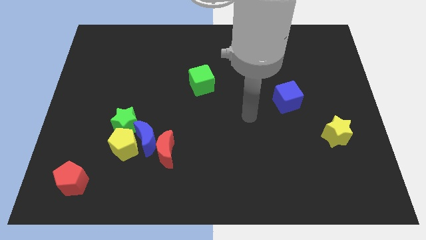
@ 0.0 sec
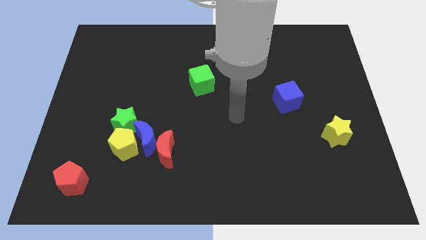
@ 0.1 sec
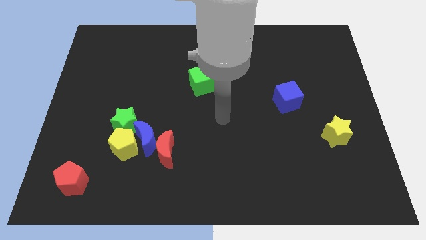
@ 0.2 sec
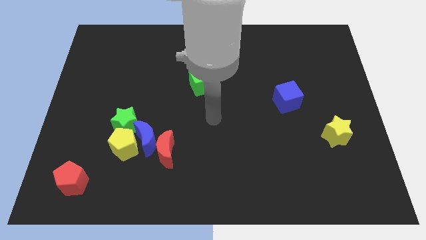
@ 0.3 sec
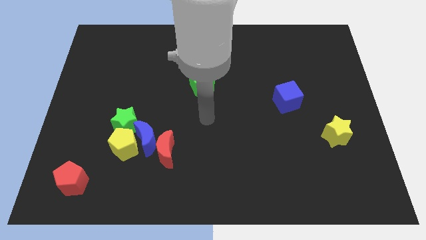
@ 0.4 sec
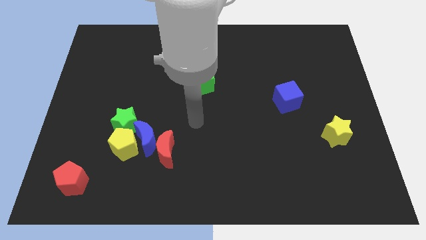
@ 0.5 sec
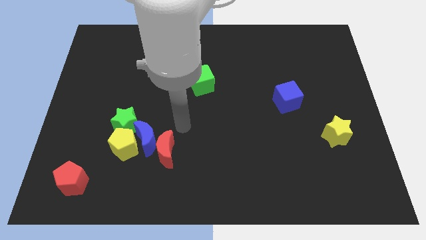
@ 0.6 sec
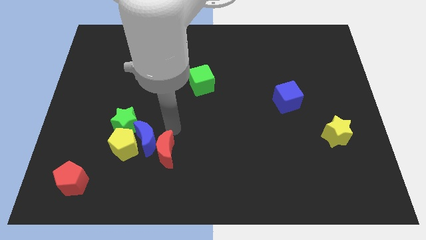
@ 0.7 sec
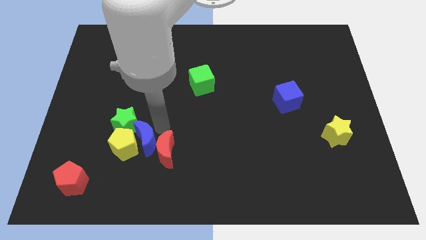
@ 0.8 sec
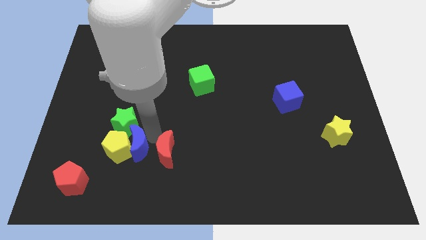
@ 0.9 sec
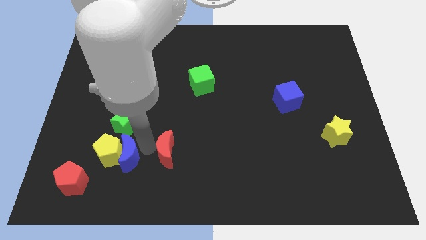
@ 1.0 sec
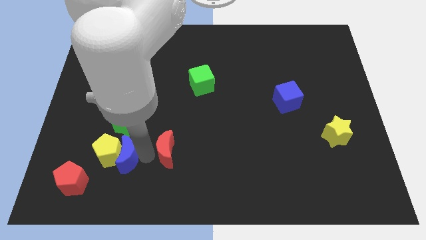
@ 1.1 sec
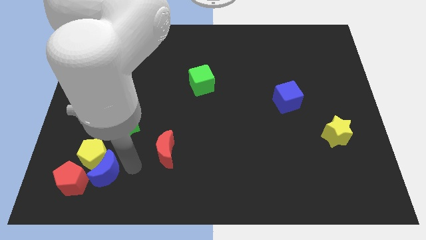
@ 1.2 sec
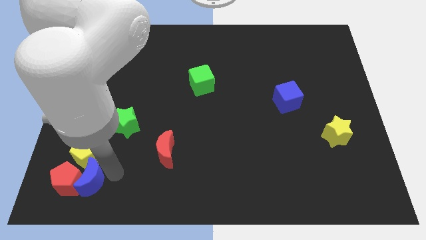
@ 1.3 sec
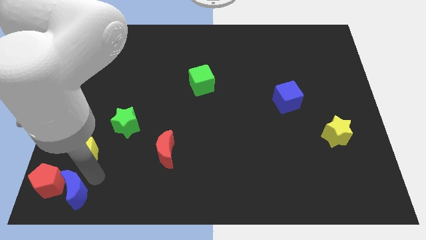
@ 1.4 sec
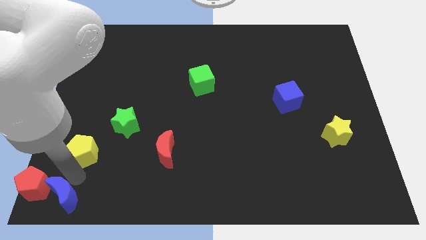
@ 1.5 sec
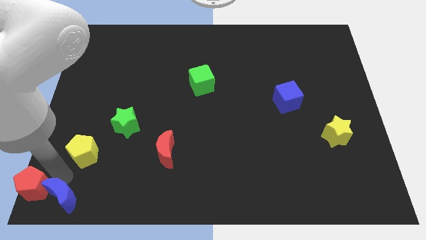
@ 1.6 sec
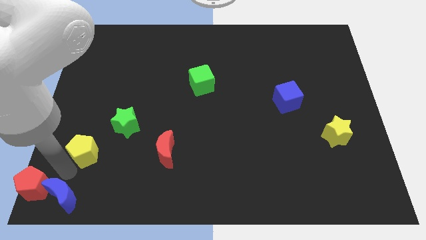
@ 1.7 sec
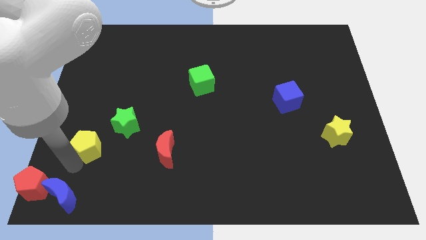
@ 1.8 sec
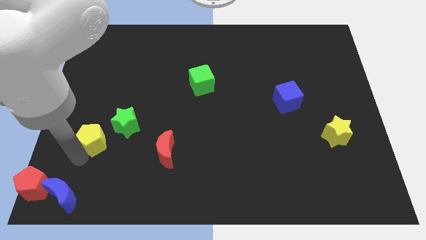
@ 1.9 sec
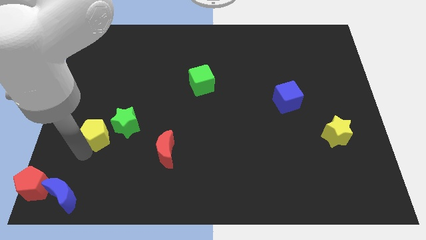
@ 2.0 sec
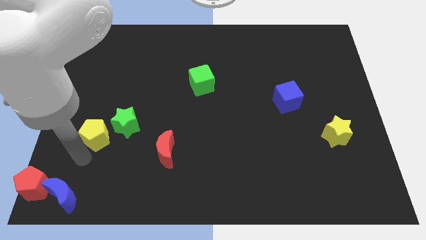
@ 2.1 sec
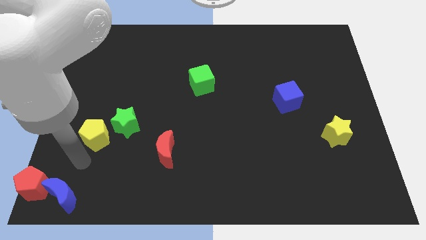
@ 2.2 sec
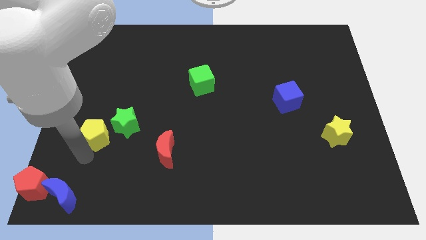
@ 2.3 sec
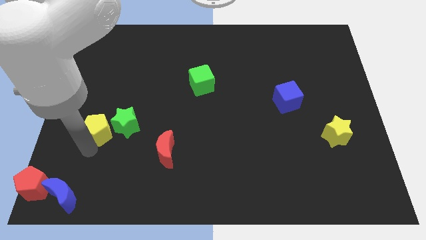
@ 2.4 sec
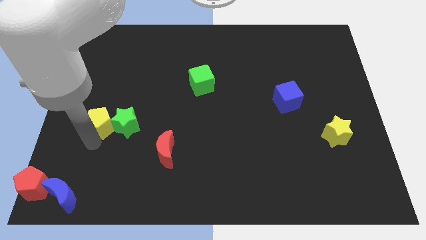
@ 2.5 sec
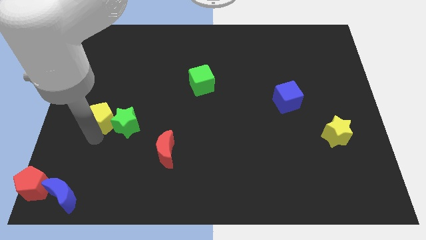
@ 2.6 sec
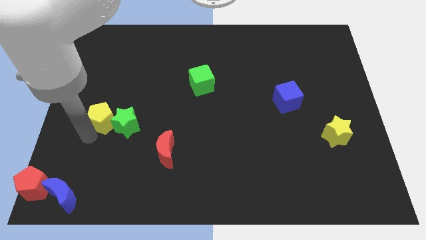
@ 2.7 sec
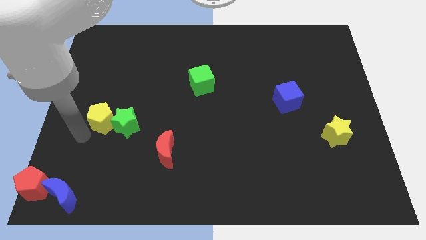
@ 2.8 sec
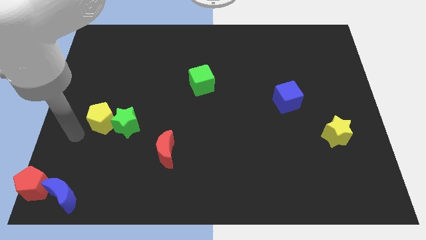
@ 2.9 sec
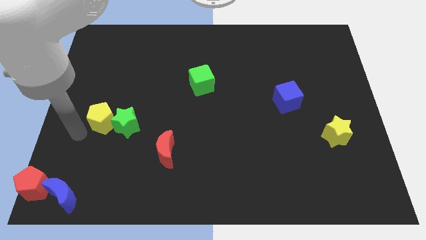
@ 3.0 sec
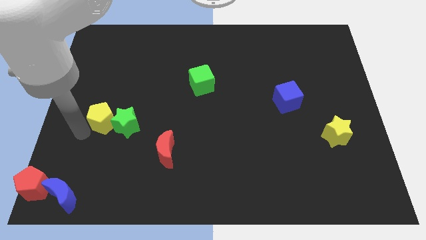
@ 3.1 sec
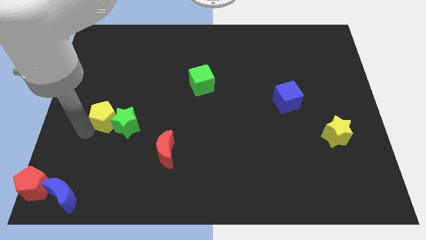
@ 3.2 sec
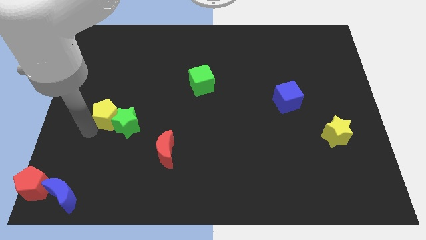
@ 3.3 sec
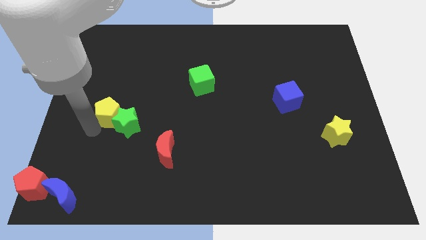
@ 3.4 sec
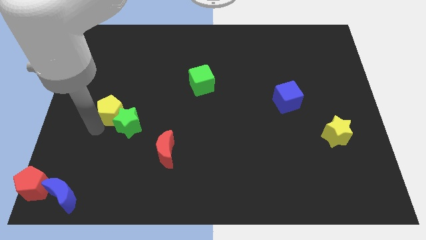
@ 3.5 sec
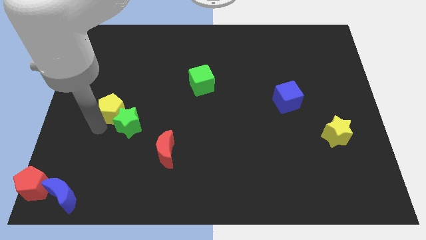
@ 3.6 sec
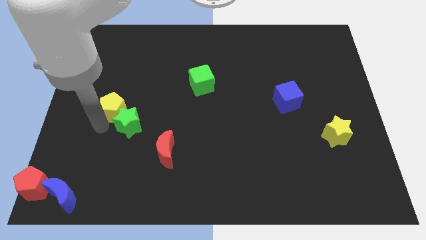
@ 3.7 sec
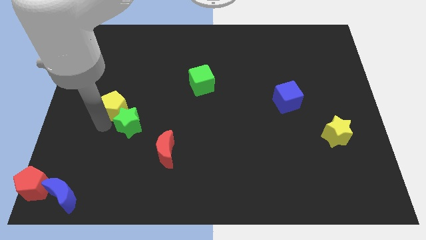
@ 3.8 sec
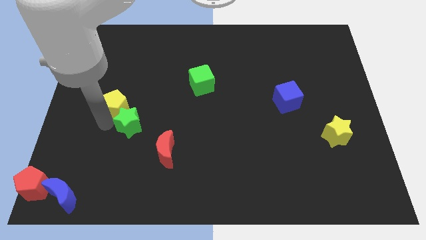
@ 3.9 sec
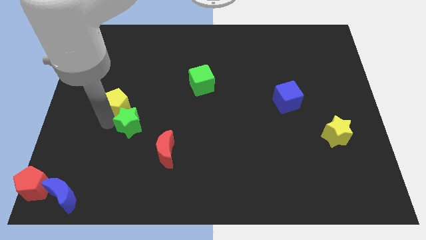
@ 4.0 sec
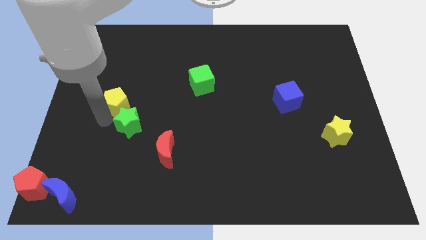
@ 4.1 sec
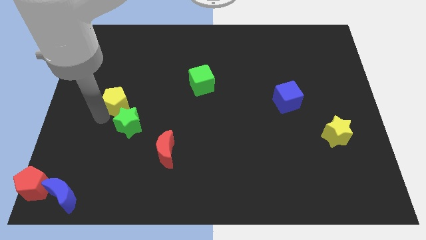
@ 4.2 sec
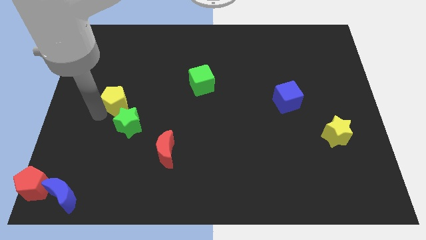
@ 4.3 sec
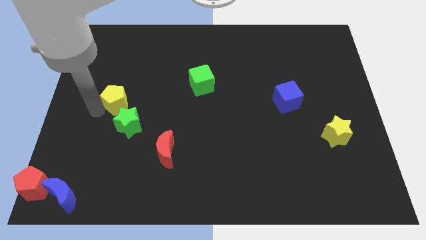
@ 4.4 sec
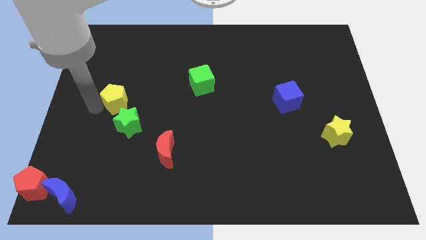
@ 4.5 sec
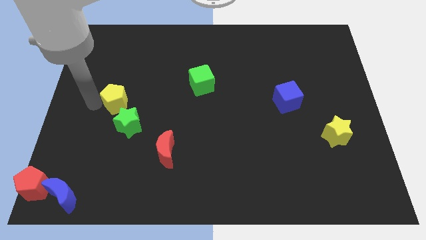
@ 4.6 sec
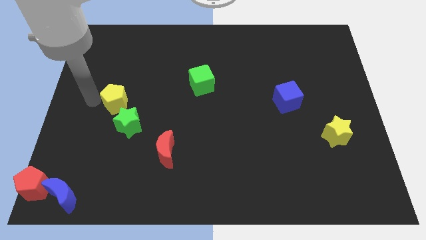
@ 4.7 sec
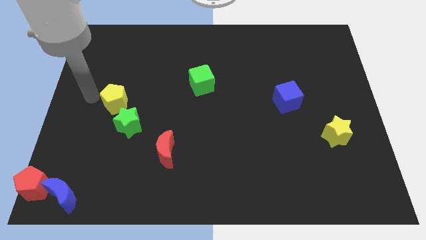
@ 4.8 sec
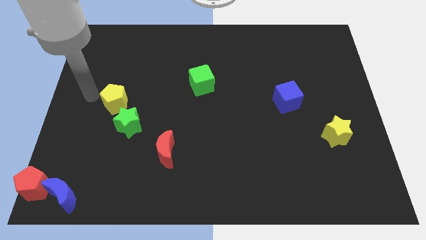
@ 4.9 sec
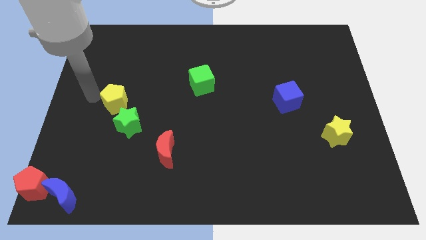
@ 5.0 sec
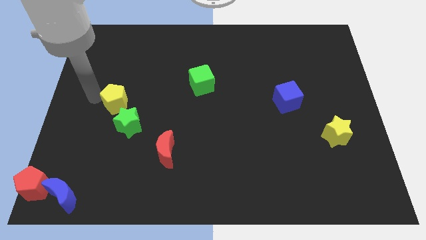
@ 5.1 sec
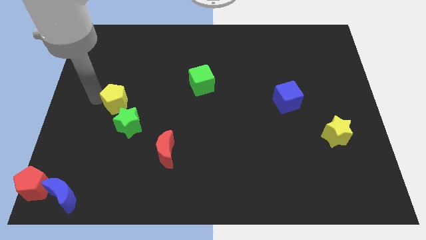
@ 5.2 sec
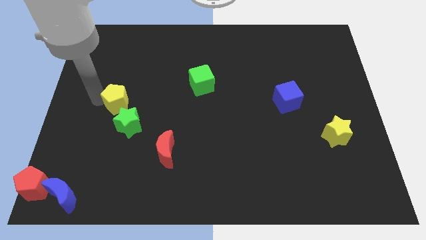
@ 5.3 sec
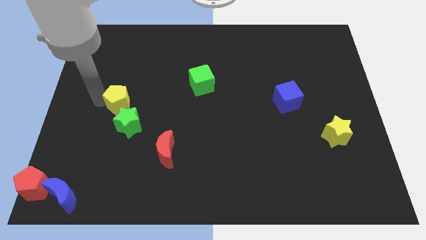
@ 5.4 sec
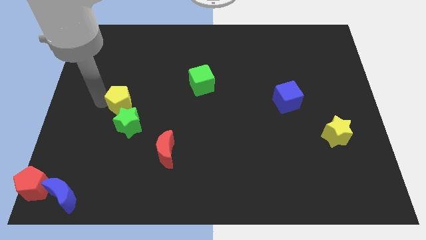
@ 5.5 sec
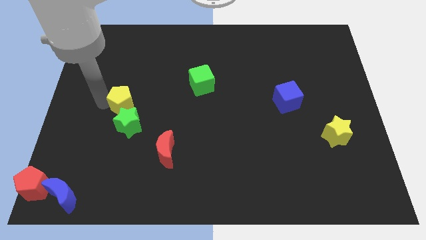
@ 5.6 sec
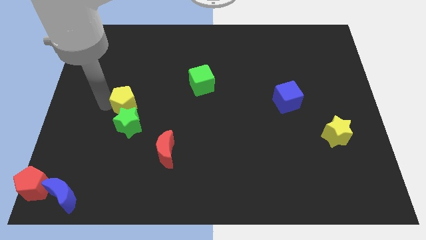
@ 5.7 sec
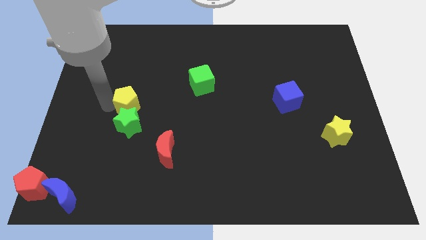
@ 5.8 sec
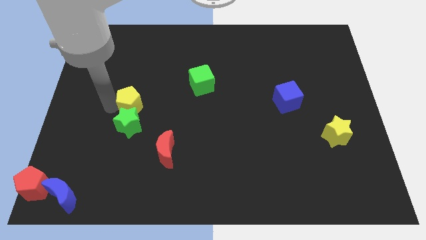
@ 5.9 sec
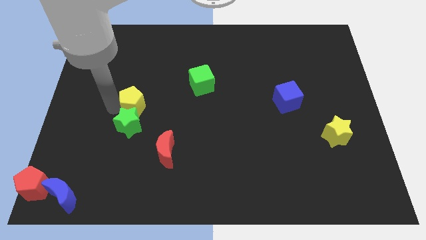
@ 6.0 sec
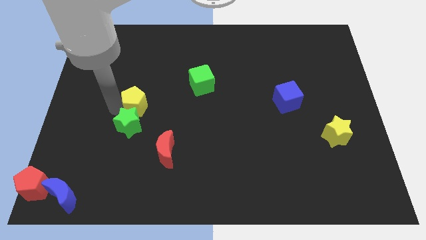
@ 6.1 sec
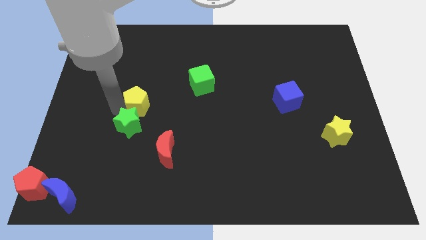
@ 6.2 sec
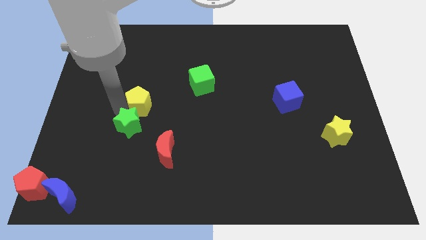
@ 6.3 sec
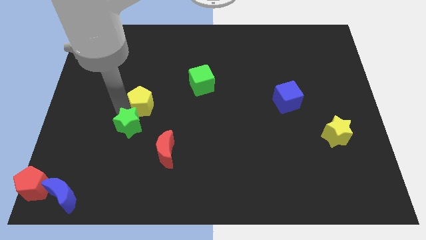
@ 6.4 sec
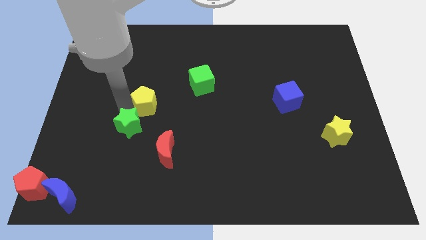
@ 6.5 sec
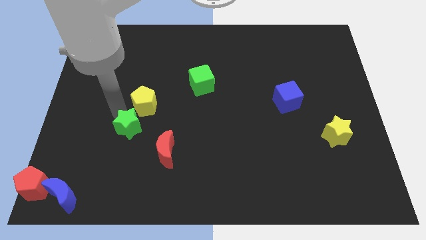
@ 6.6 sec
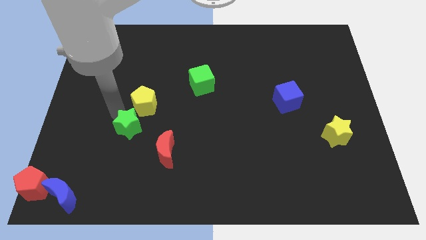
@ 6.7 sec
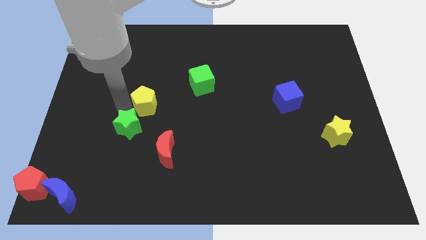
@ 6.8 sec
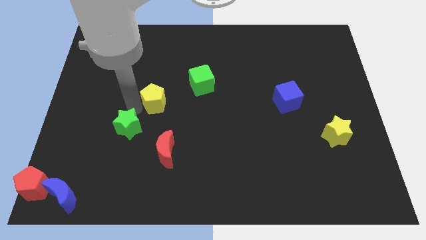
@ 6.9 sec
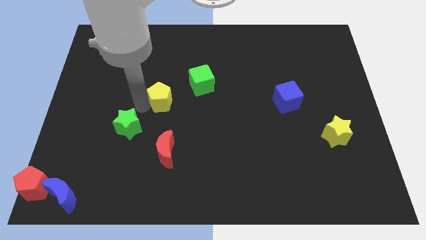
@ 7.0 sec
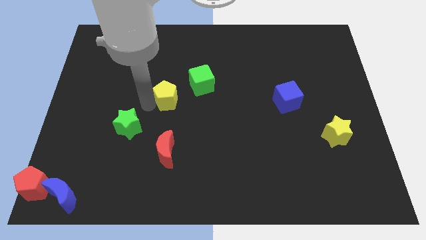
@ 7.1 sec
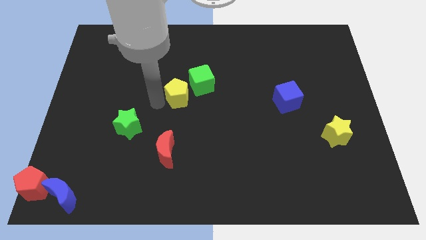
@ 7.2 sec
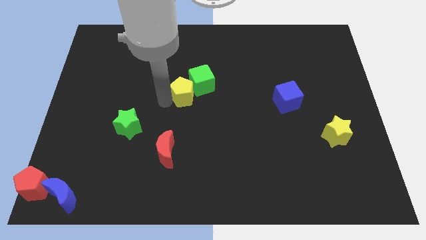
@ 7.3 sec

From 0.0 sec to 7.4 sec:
move the yellow pentagon next to the green cube
